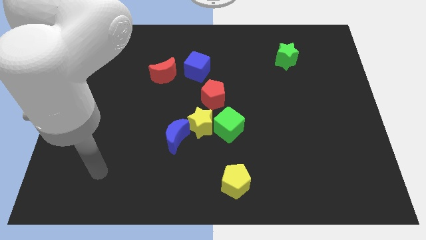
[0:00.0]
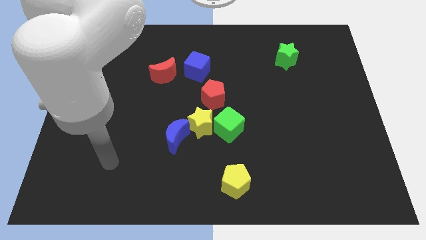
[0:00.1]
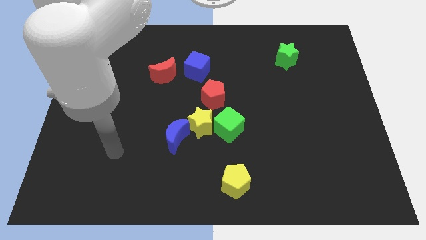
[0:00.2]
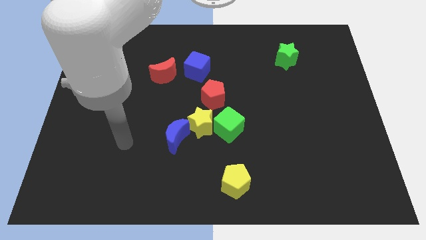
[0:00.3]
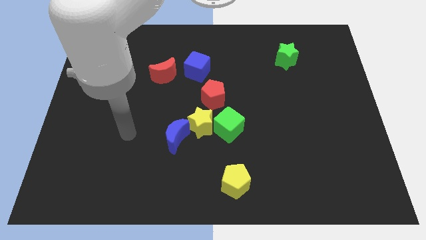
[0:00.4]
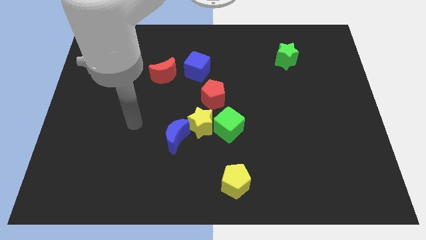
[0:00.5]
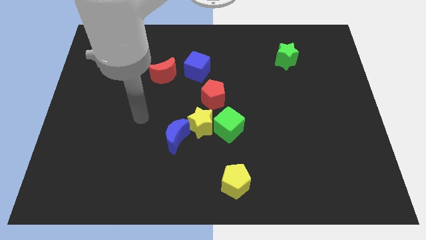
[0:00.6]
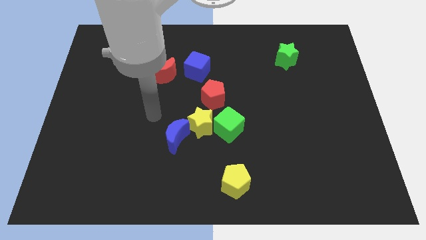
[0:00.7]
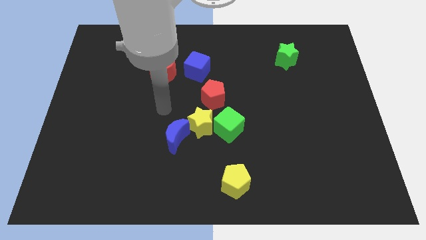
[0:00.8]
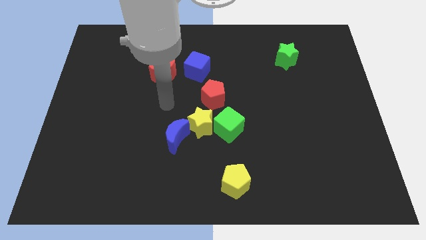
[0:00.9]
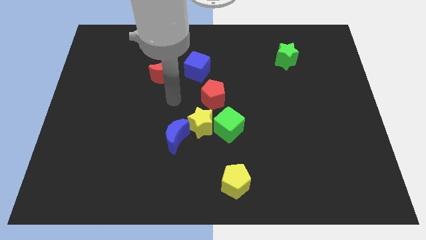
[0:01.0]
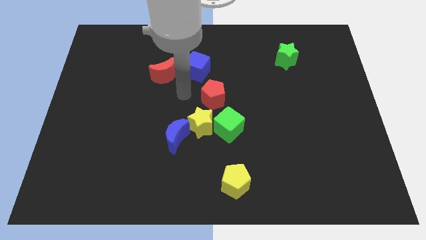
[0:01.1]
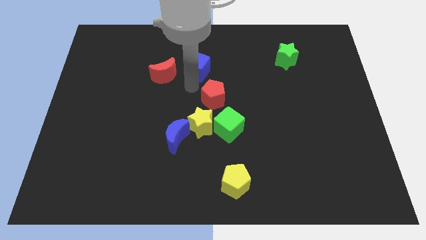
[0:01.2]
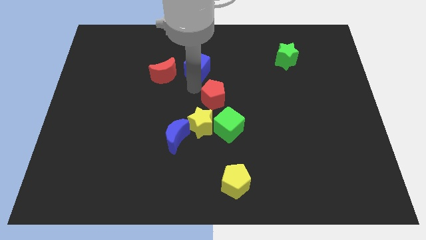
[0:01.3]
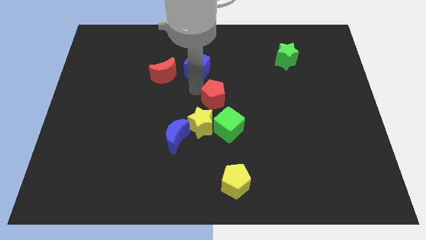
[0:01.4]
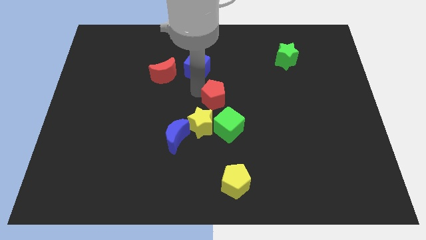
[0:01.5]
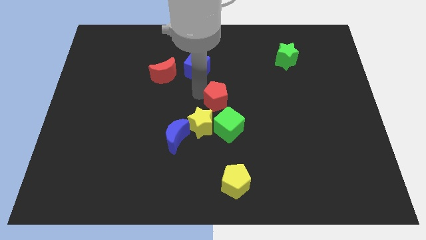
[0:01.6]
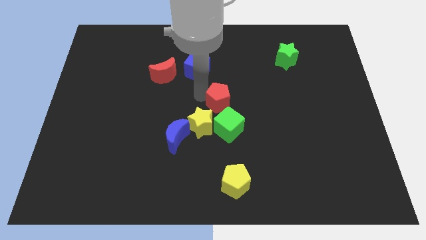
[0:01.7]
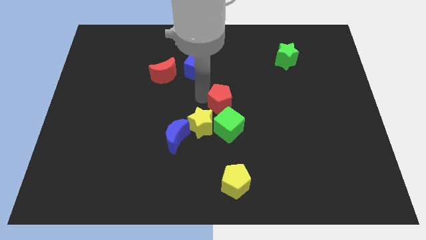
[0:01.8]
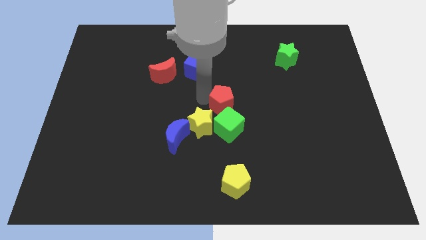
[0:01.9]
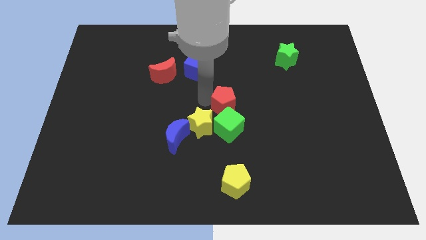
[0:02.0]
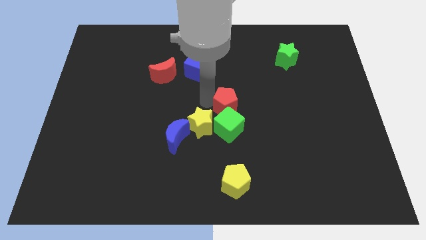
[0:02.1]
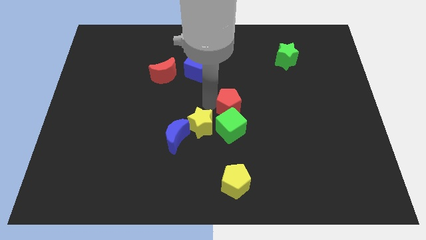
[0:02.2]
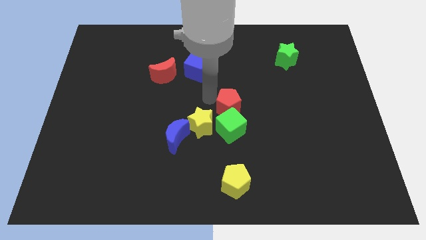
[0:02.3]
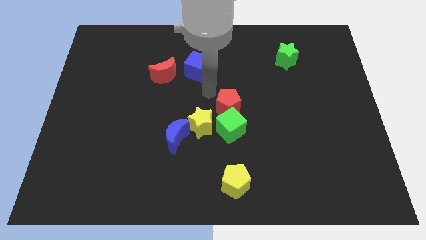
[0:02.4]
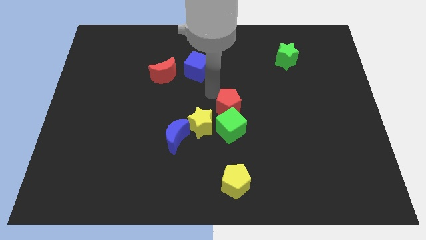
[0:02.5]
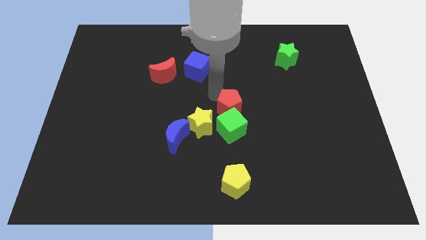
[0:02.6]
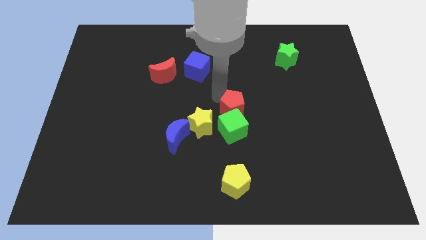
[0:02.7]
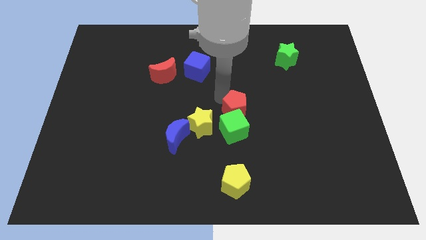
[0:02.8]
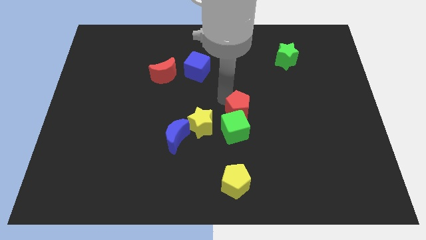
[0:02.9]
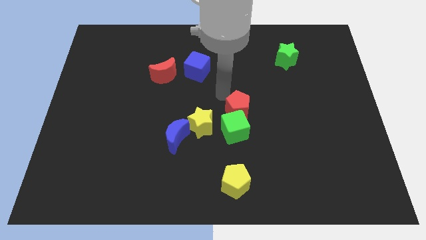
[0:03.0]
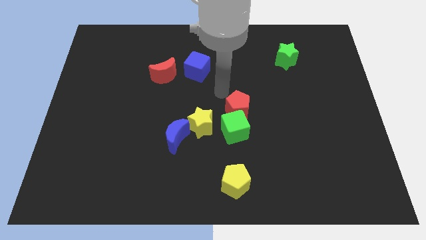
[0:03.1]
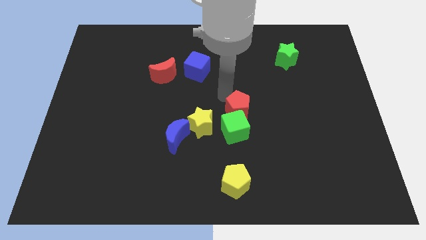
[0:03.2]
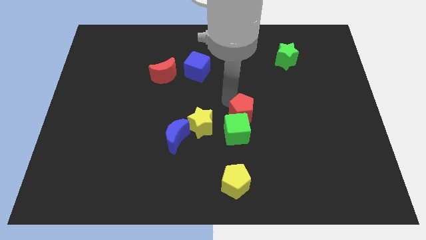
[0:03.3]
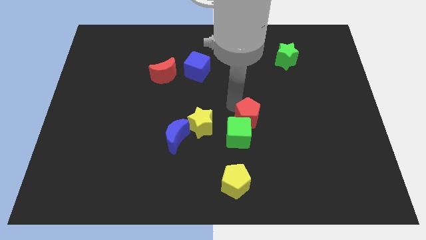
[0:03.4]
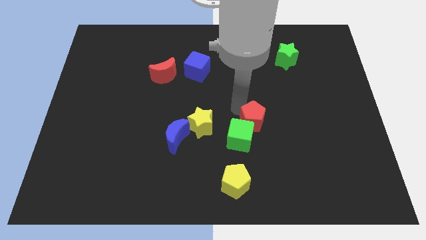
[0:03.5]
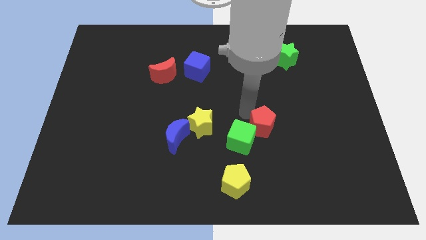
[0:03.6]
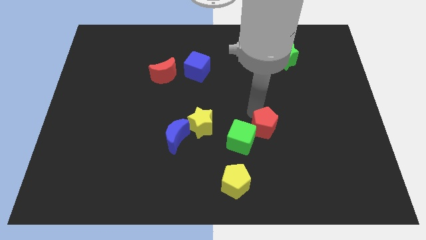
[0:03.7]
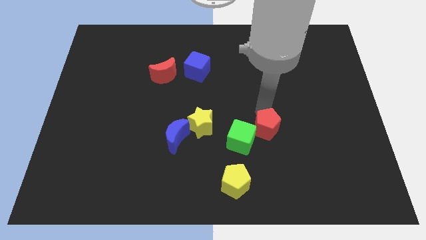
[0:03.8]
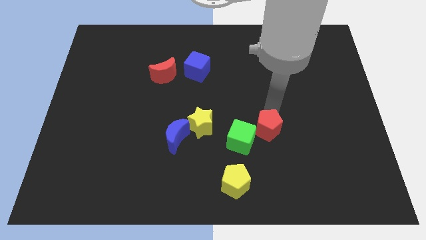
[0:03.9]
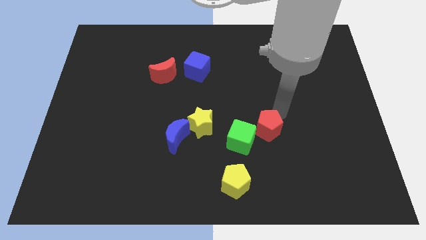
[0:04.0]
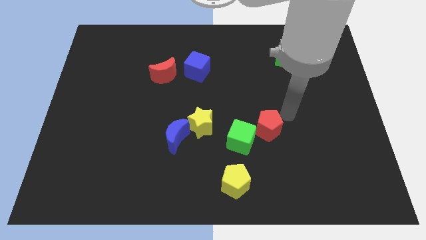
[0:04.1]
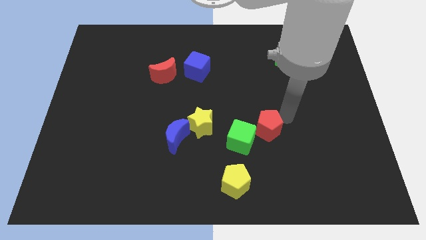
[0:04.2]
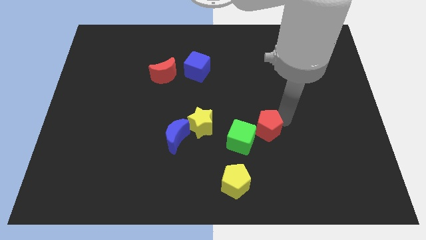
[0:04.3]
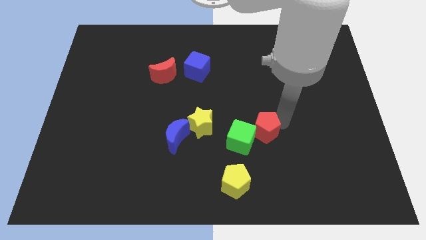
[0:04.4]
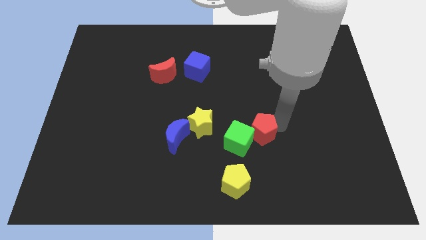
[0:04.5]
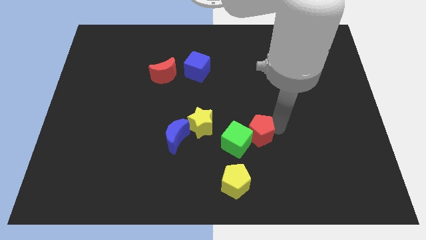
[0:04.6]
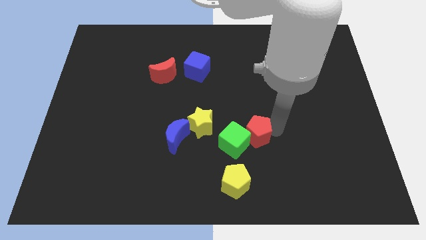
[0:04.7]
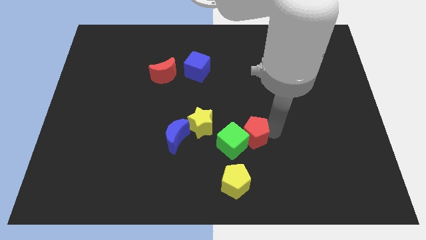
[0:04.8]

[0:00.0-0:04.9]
push the red pentagon a little bit down

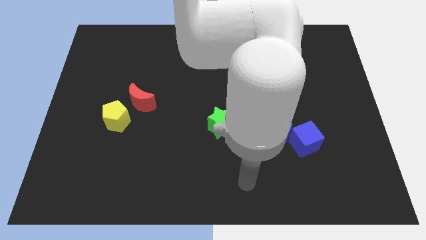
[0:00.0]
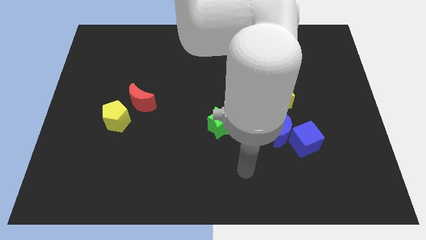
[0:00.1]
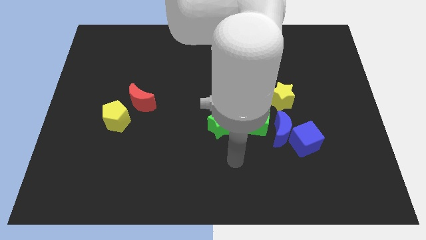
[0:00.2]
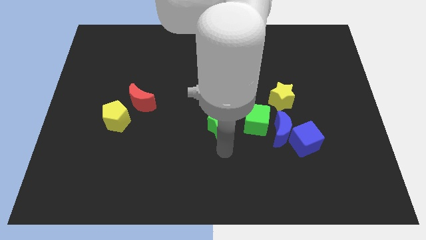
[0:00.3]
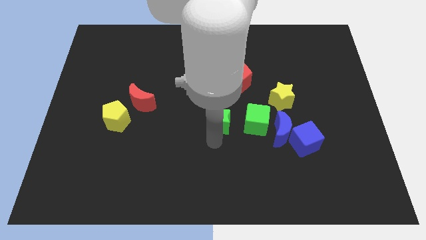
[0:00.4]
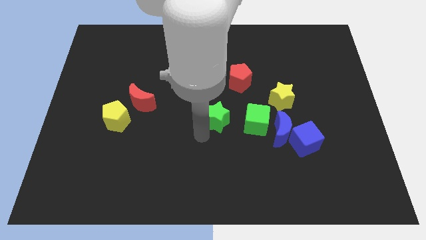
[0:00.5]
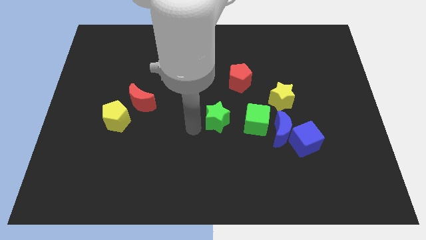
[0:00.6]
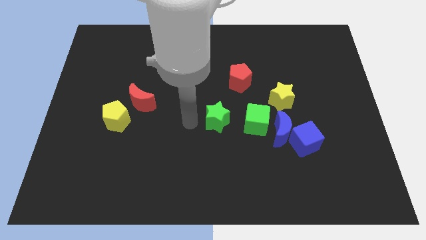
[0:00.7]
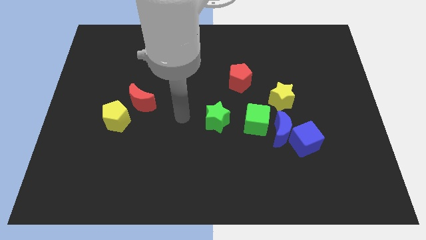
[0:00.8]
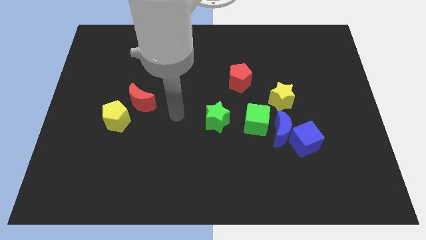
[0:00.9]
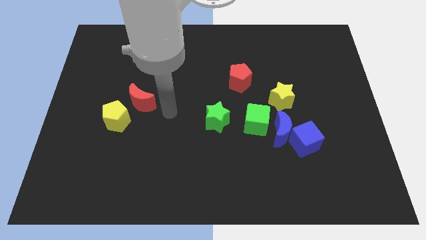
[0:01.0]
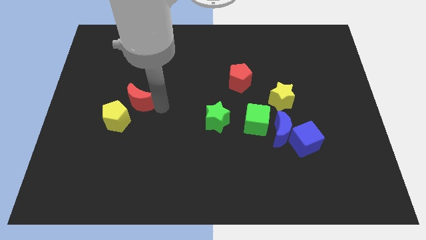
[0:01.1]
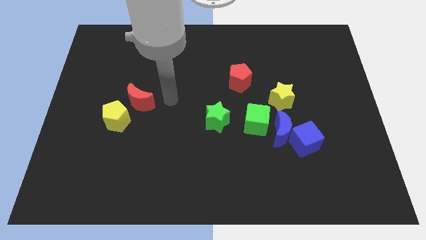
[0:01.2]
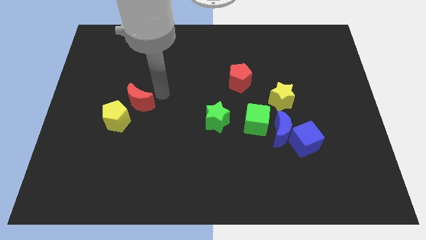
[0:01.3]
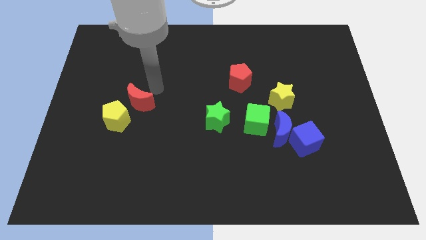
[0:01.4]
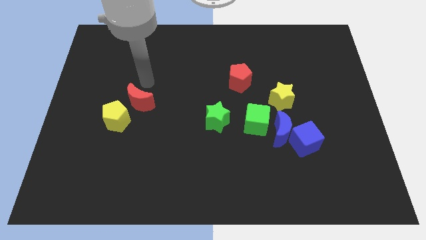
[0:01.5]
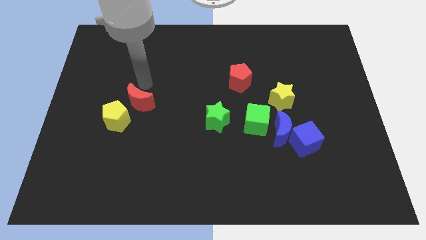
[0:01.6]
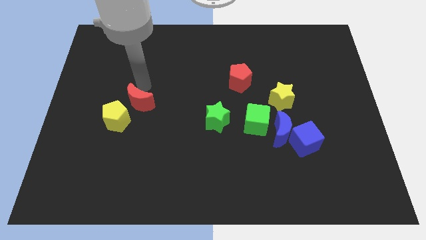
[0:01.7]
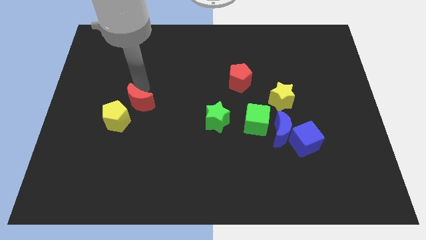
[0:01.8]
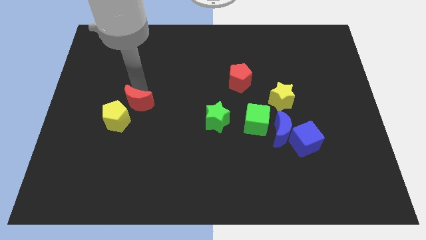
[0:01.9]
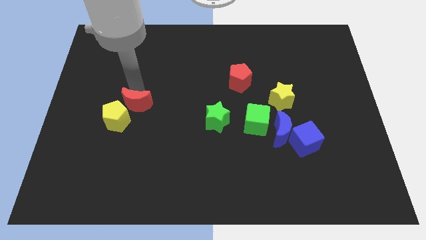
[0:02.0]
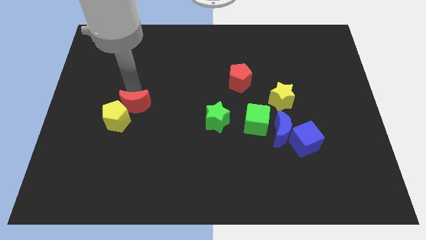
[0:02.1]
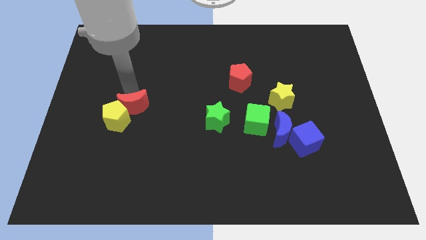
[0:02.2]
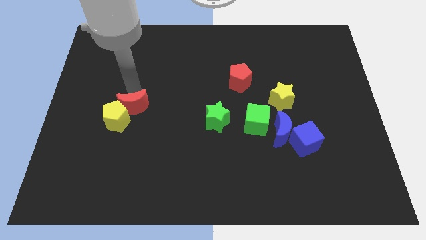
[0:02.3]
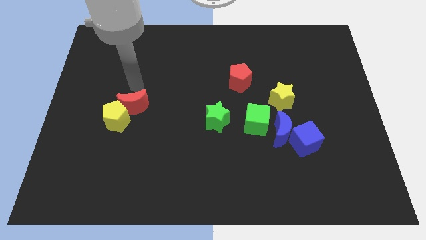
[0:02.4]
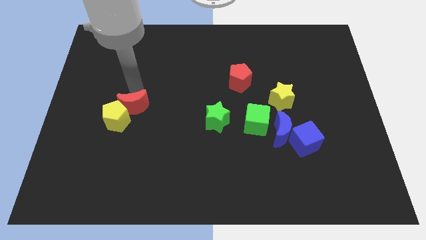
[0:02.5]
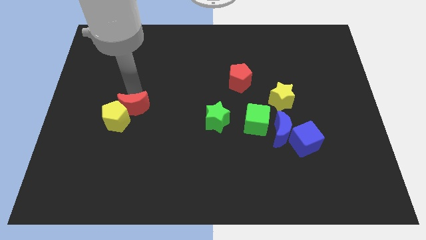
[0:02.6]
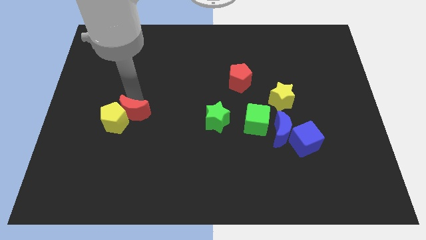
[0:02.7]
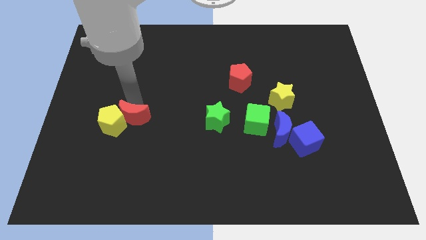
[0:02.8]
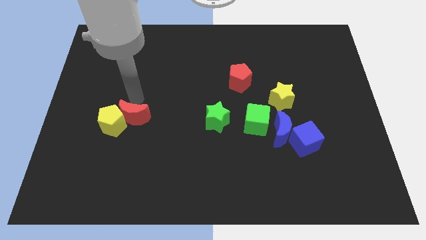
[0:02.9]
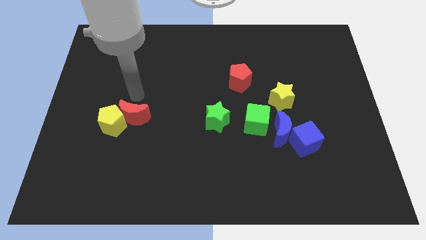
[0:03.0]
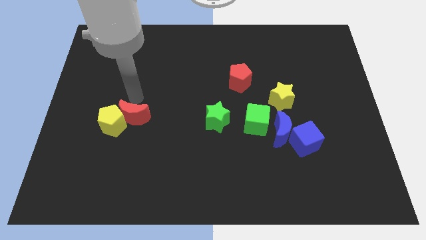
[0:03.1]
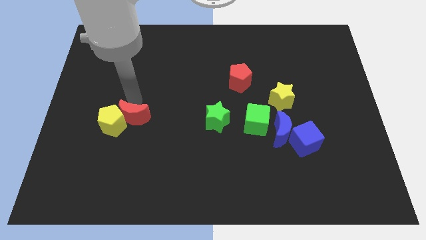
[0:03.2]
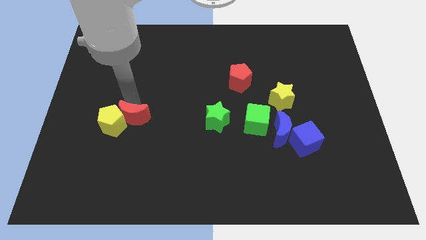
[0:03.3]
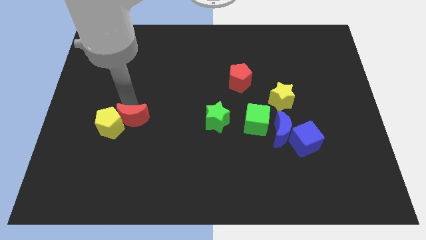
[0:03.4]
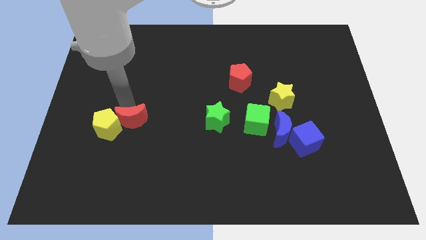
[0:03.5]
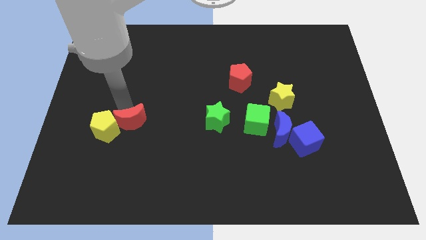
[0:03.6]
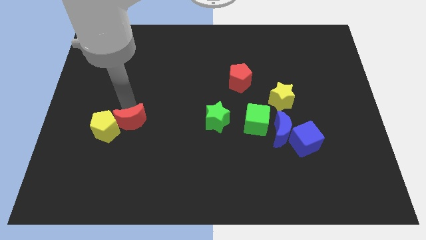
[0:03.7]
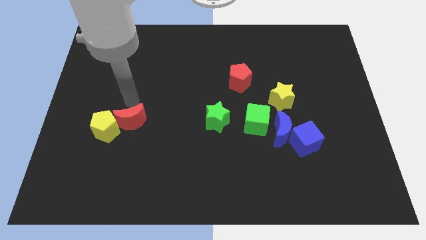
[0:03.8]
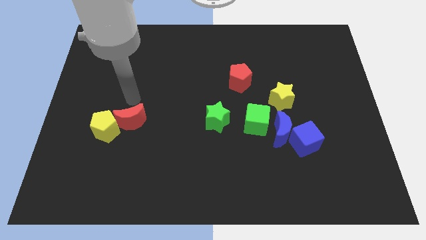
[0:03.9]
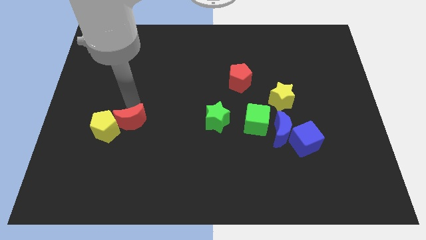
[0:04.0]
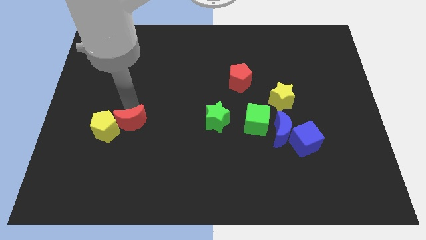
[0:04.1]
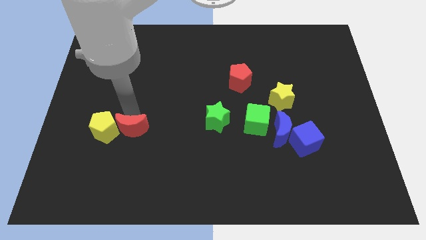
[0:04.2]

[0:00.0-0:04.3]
slightly slide the red moon downwards
